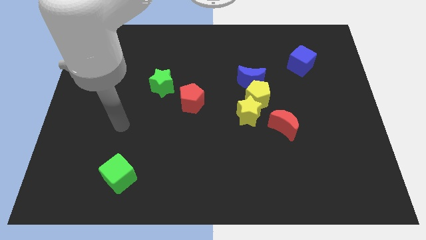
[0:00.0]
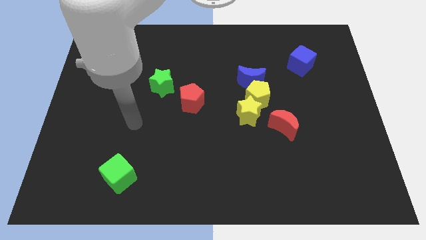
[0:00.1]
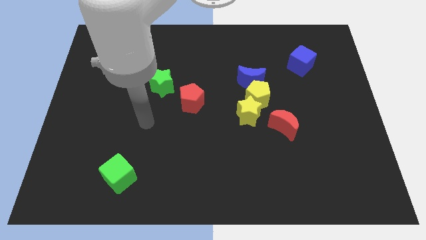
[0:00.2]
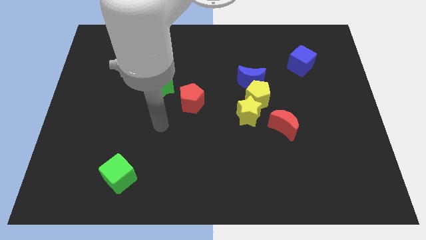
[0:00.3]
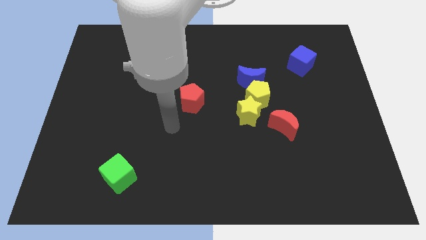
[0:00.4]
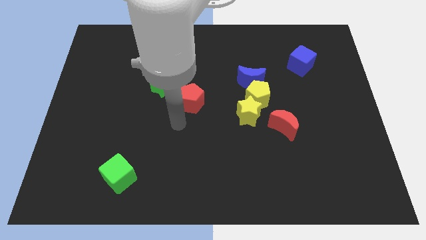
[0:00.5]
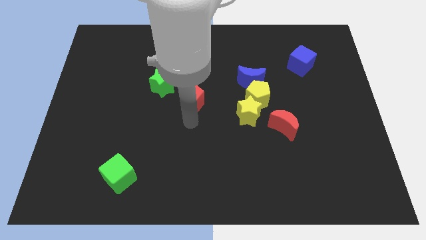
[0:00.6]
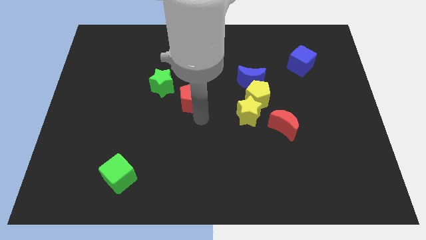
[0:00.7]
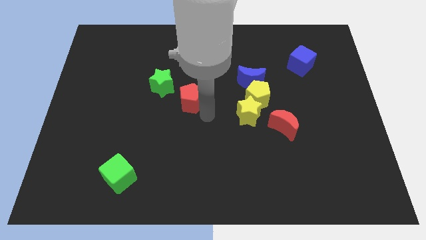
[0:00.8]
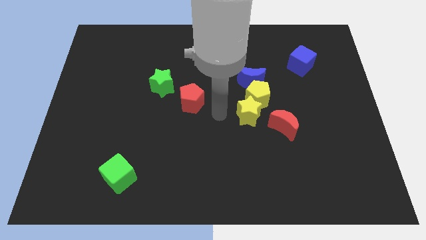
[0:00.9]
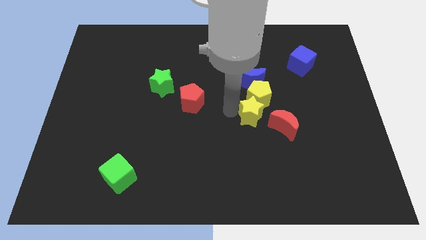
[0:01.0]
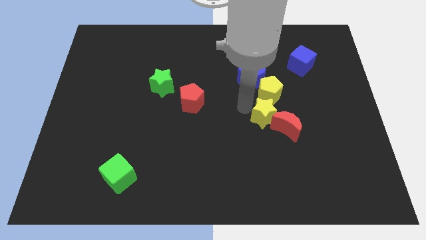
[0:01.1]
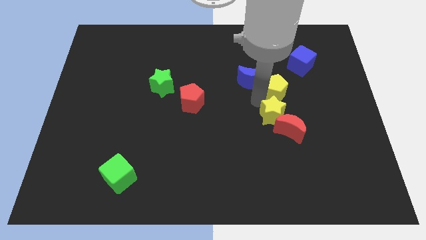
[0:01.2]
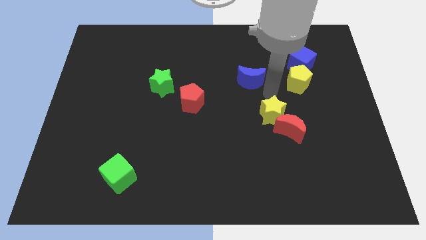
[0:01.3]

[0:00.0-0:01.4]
pull the blue moon apart from the yellow pentagon

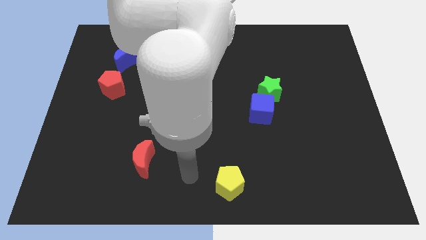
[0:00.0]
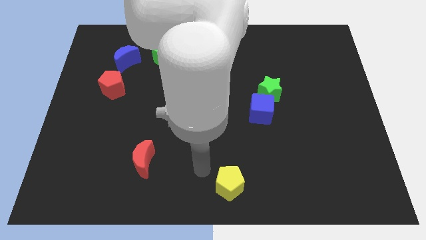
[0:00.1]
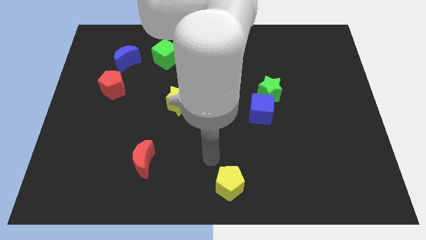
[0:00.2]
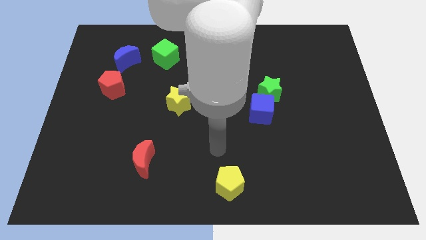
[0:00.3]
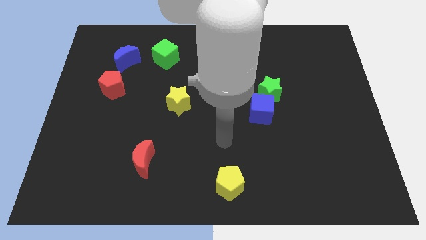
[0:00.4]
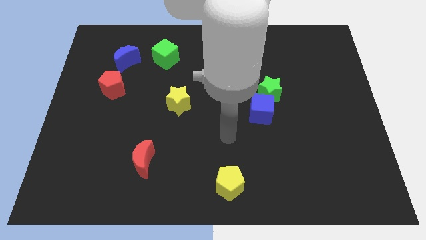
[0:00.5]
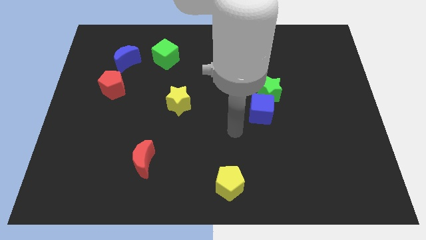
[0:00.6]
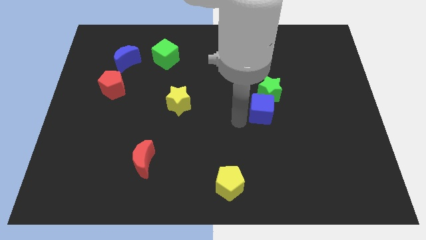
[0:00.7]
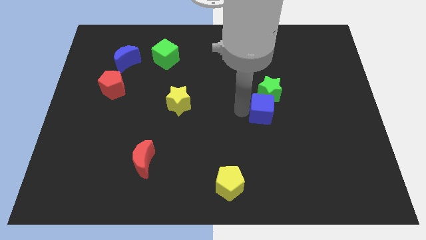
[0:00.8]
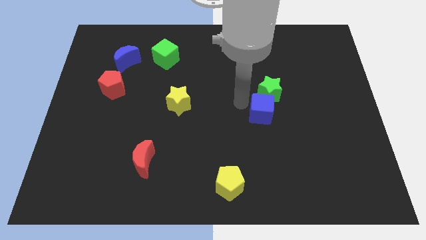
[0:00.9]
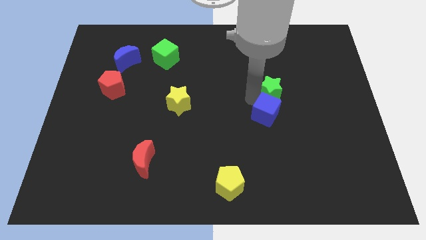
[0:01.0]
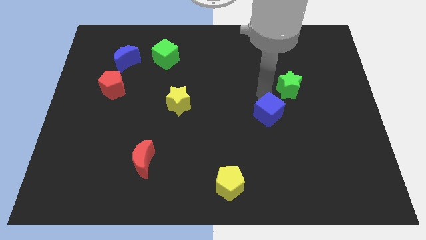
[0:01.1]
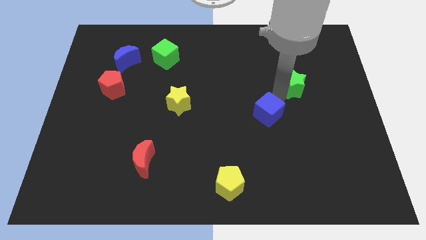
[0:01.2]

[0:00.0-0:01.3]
separate the blue cube from the green star

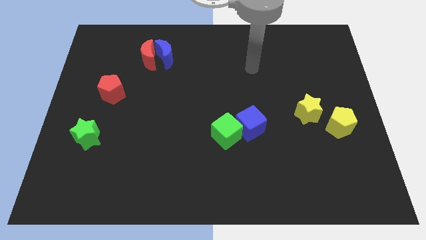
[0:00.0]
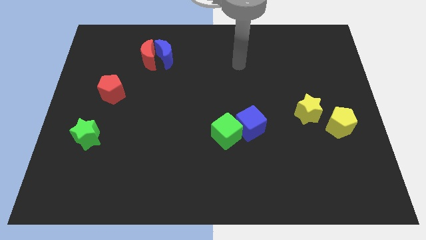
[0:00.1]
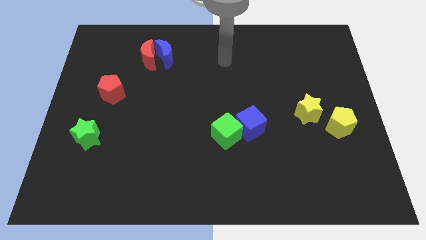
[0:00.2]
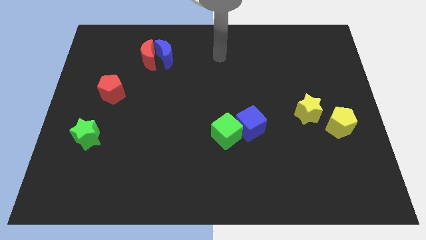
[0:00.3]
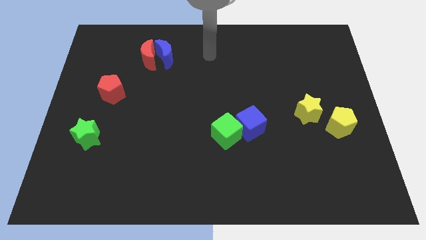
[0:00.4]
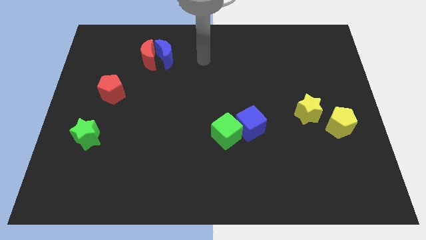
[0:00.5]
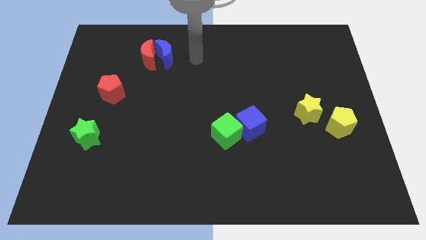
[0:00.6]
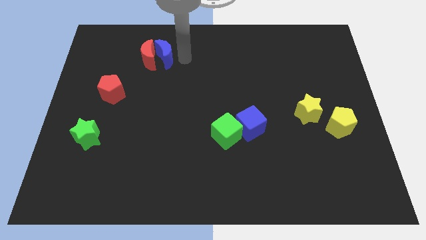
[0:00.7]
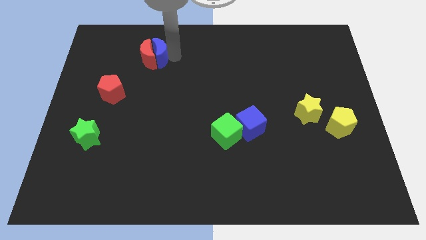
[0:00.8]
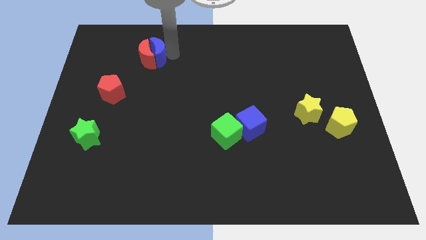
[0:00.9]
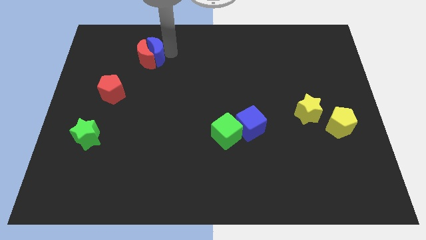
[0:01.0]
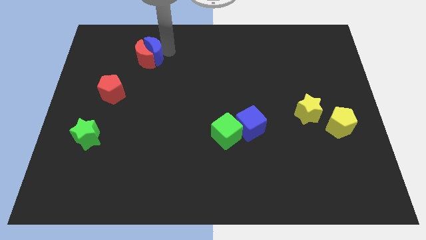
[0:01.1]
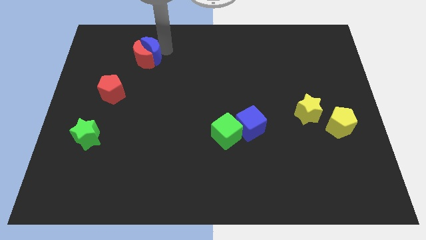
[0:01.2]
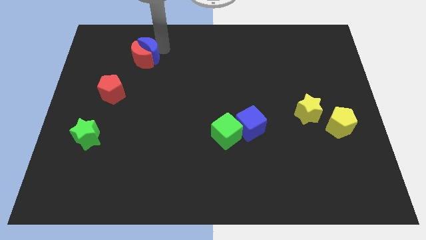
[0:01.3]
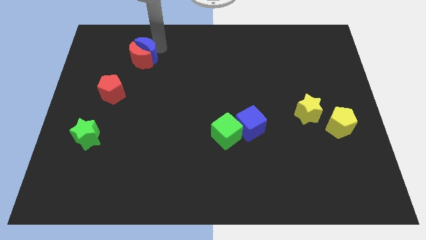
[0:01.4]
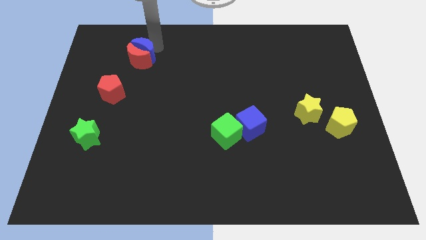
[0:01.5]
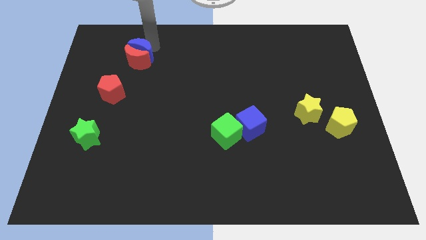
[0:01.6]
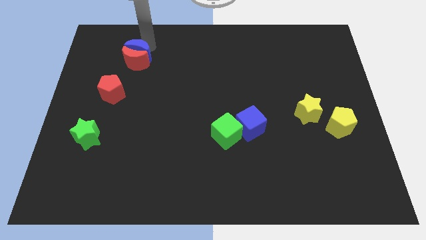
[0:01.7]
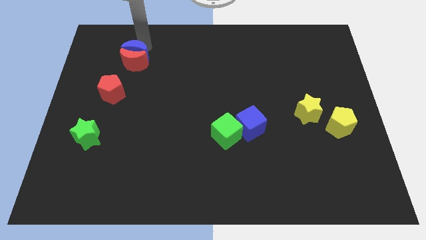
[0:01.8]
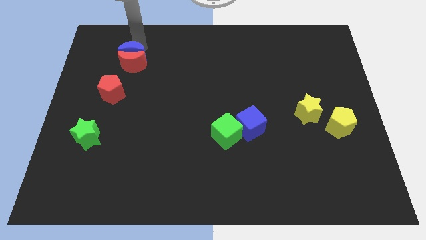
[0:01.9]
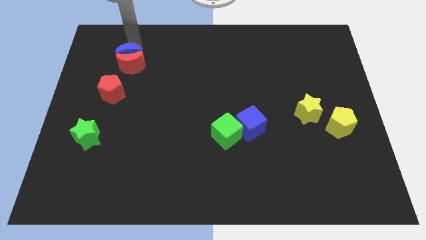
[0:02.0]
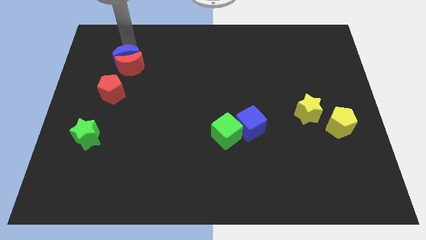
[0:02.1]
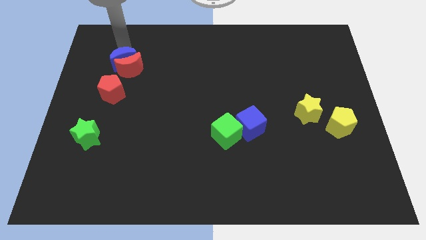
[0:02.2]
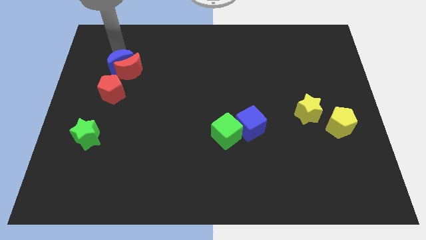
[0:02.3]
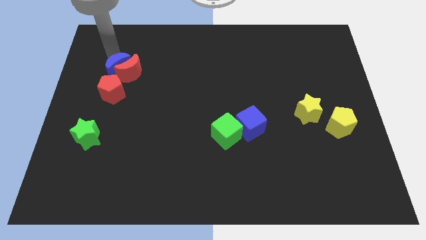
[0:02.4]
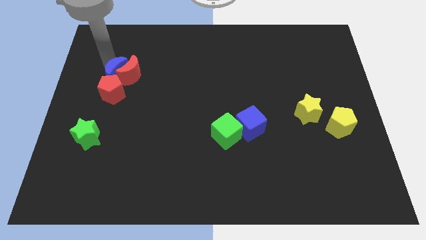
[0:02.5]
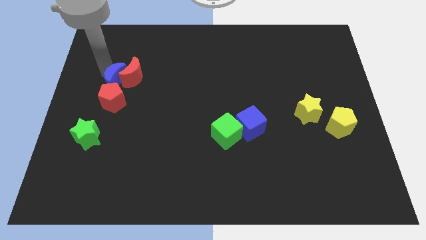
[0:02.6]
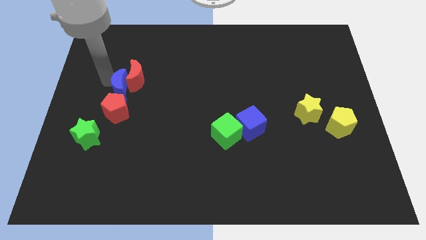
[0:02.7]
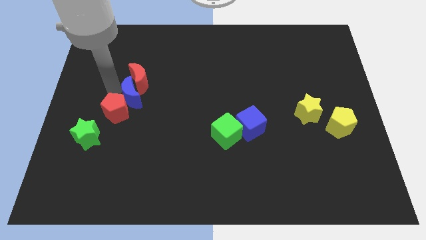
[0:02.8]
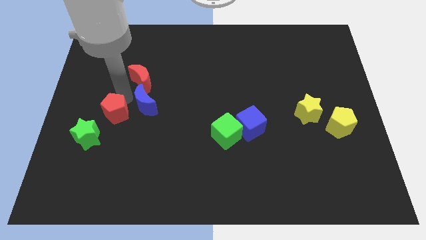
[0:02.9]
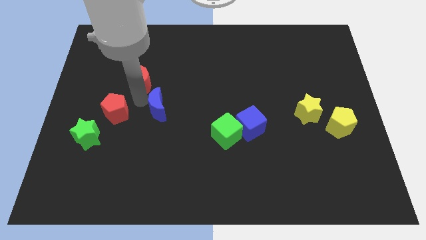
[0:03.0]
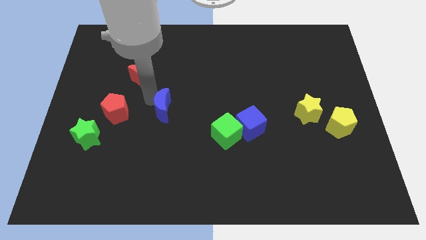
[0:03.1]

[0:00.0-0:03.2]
separate the red moon from the blue moon

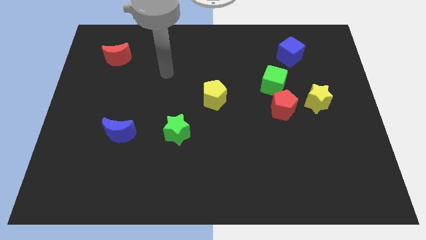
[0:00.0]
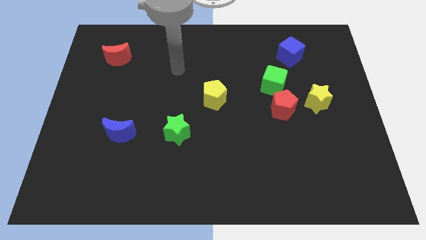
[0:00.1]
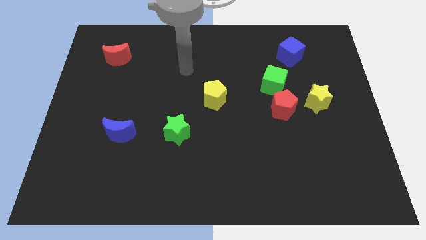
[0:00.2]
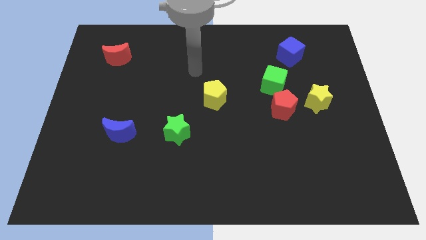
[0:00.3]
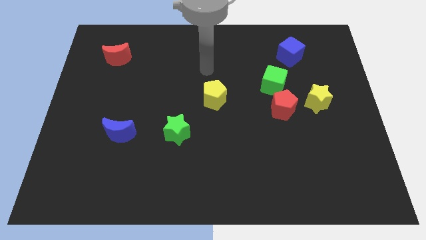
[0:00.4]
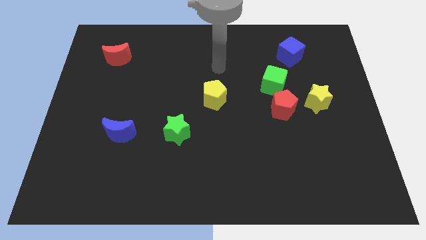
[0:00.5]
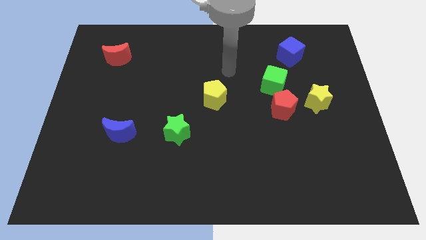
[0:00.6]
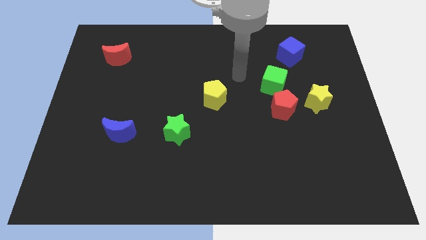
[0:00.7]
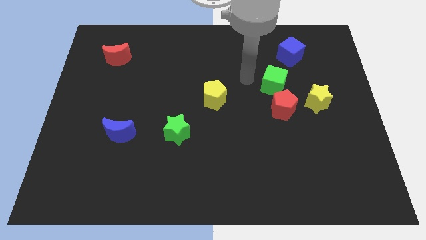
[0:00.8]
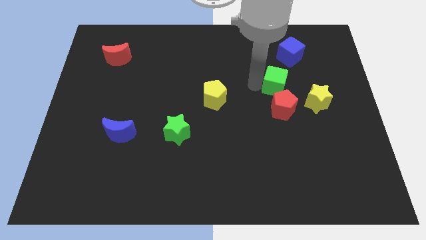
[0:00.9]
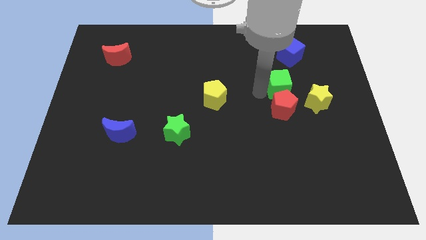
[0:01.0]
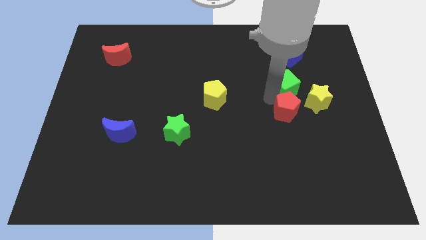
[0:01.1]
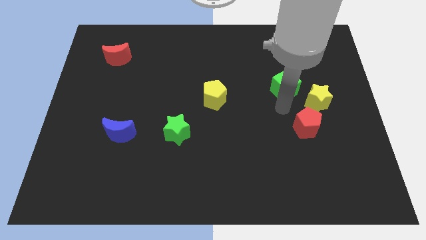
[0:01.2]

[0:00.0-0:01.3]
pull the green cube apart from the red pentagon

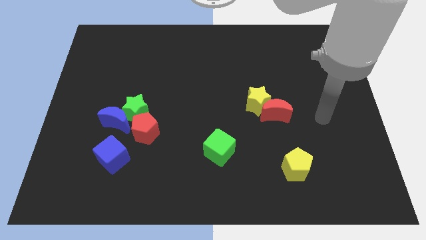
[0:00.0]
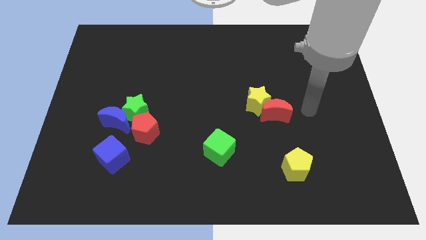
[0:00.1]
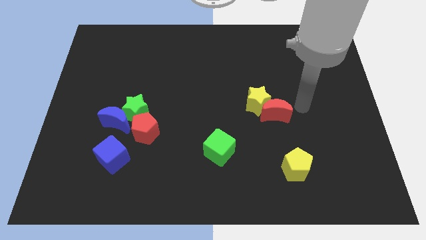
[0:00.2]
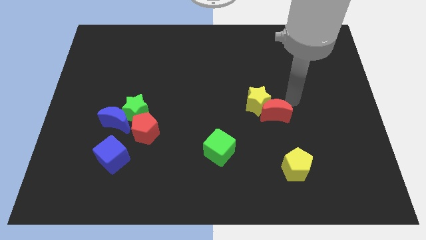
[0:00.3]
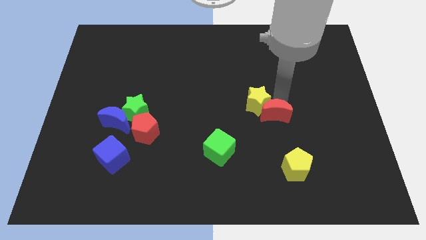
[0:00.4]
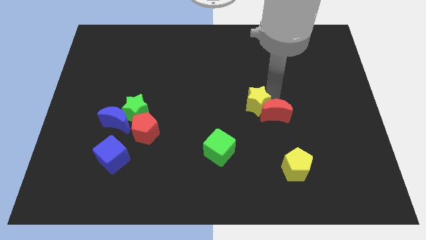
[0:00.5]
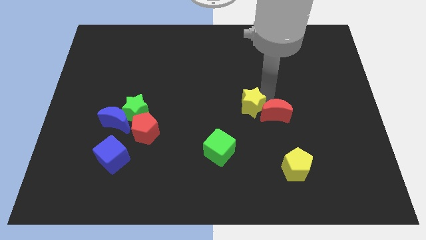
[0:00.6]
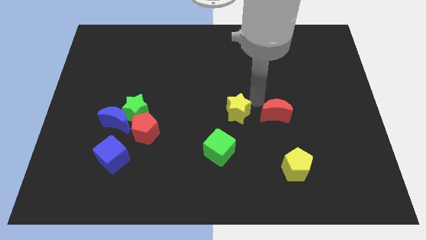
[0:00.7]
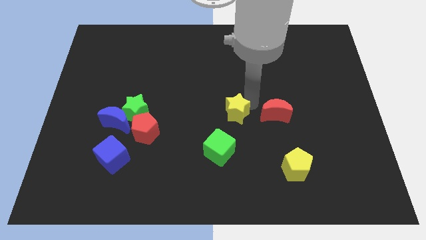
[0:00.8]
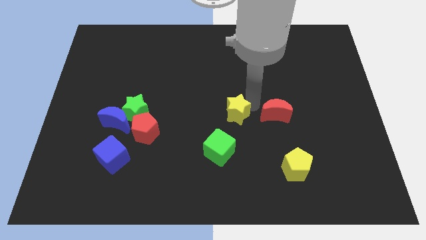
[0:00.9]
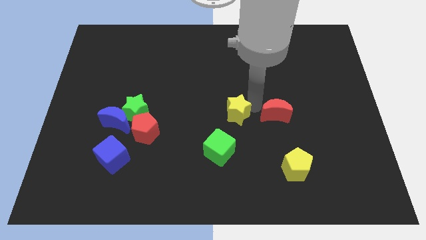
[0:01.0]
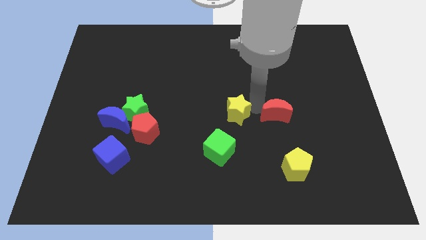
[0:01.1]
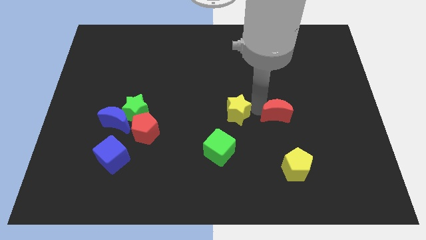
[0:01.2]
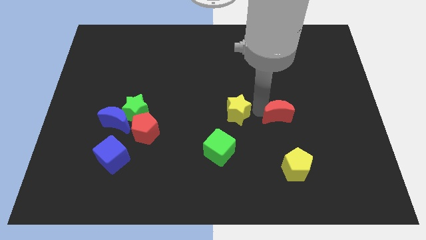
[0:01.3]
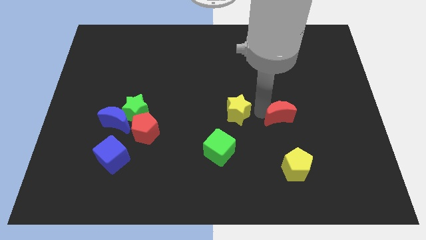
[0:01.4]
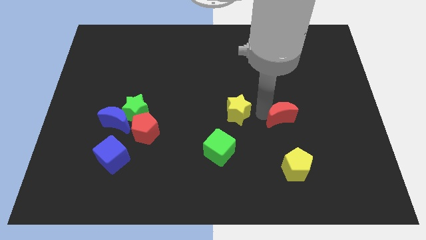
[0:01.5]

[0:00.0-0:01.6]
move the red moon away from the yellow star

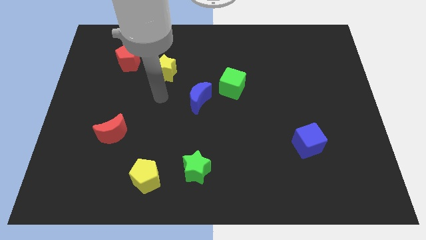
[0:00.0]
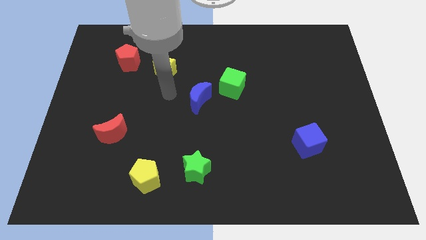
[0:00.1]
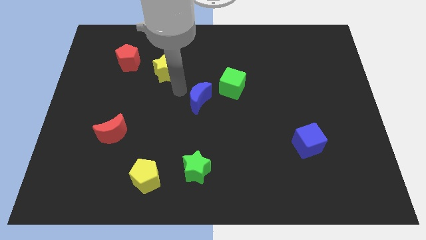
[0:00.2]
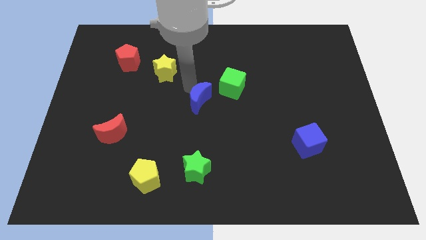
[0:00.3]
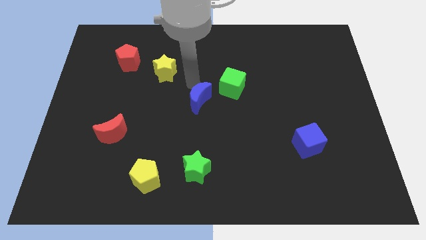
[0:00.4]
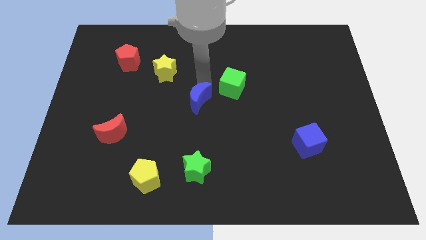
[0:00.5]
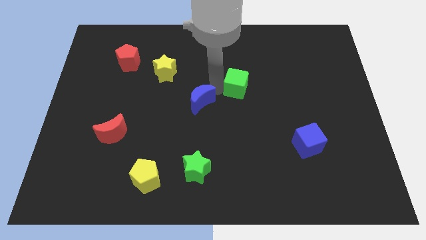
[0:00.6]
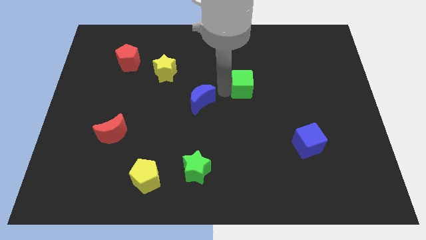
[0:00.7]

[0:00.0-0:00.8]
pull the blue moon apart from the green cube
